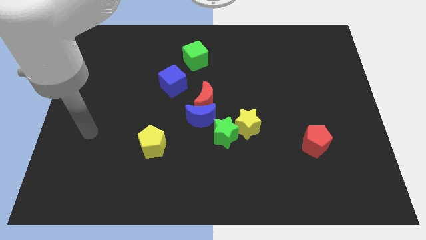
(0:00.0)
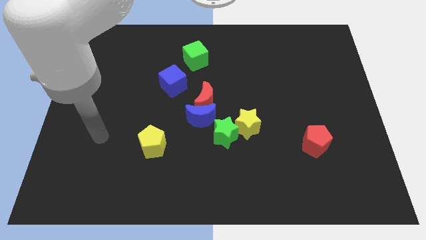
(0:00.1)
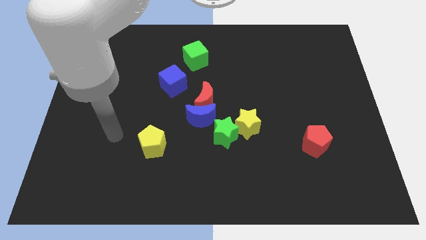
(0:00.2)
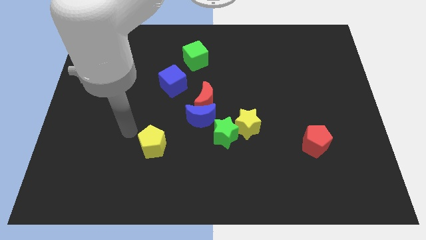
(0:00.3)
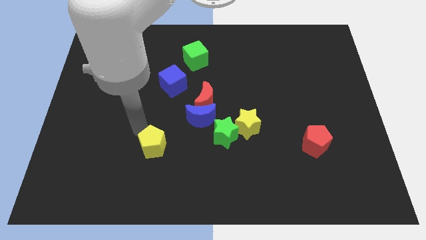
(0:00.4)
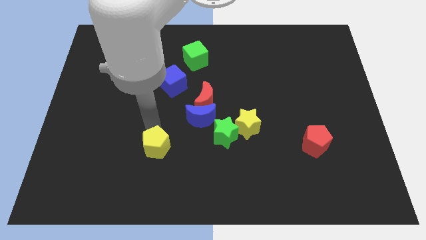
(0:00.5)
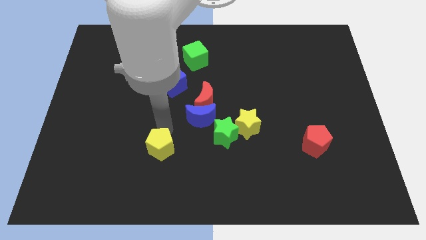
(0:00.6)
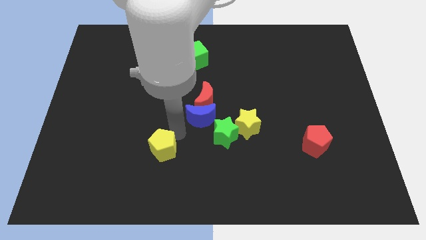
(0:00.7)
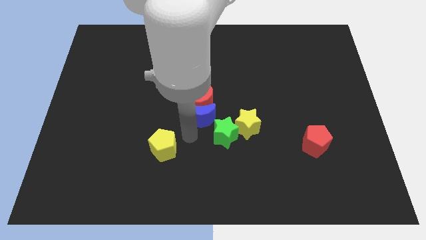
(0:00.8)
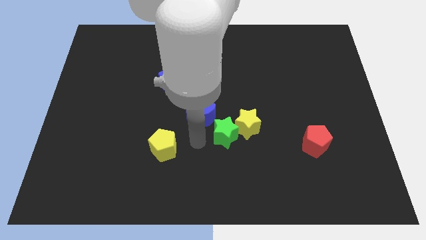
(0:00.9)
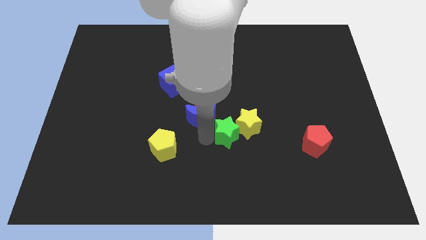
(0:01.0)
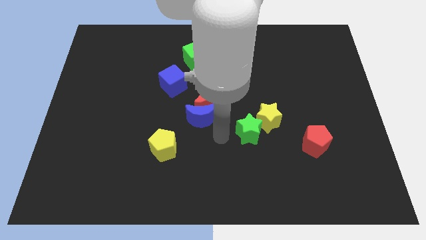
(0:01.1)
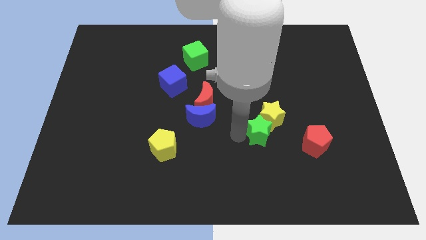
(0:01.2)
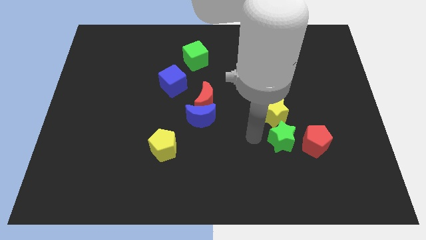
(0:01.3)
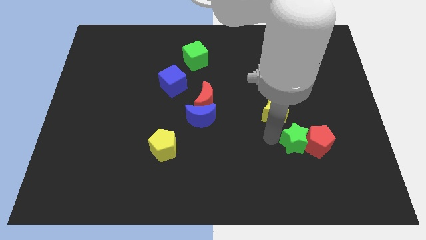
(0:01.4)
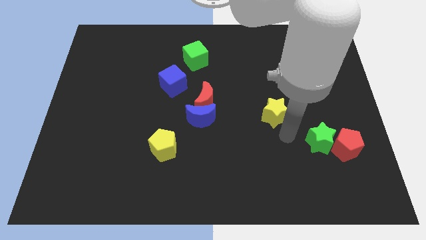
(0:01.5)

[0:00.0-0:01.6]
move the yellow star away from the green star

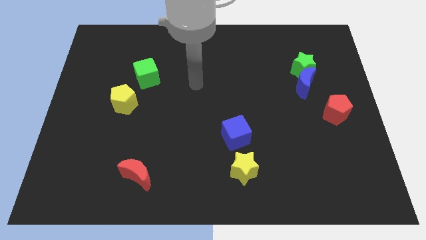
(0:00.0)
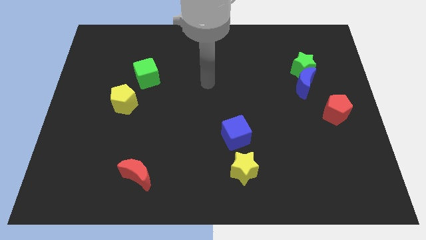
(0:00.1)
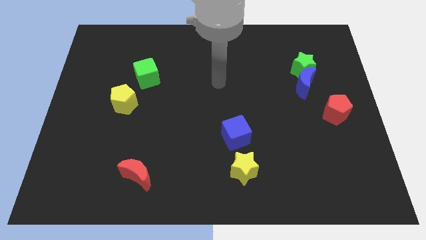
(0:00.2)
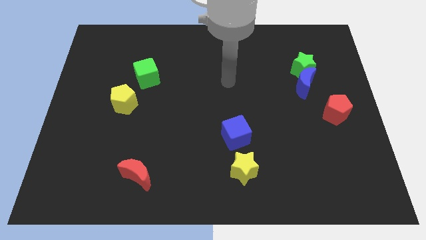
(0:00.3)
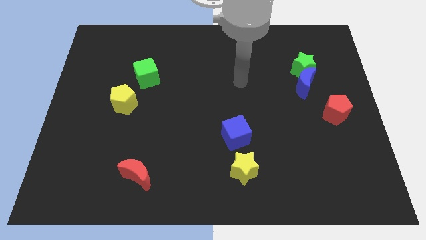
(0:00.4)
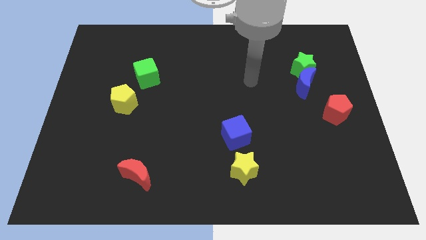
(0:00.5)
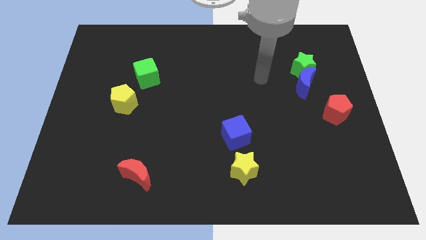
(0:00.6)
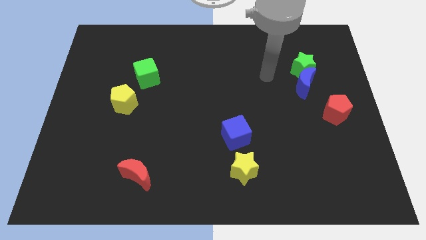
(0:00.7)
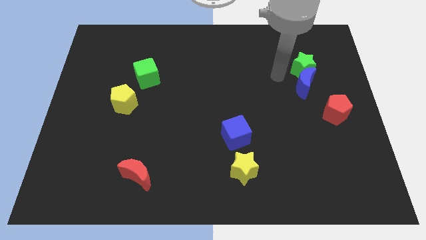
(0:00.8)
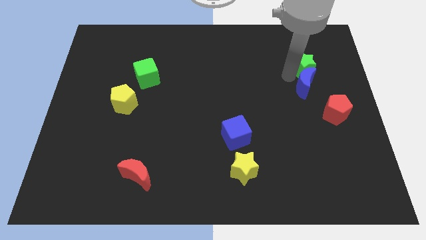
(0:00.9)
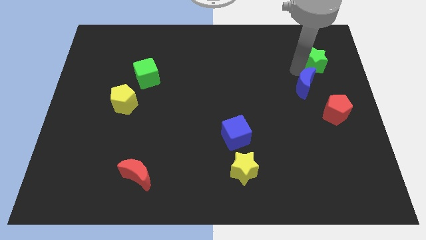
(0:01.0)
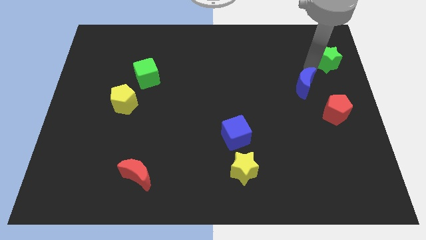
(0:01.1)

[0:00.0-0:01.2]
pull the blue moon apart from the green star

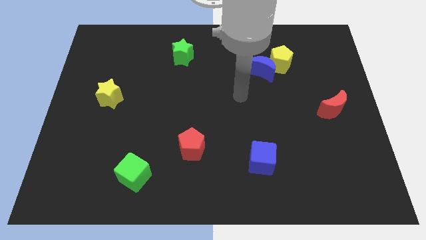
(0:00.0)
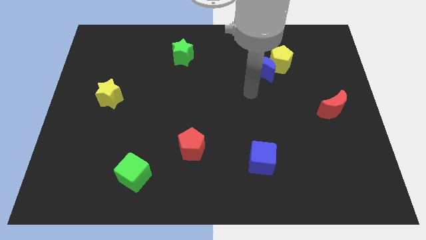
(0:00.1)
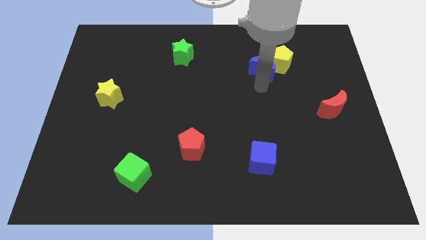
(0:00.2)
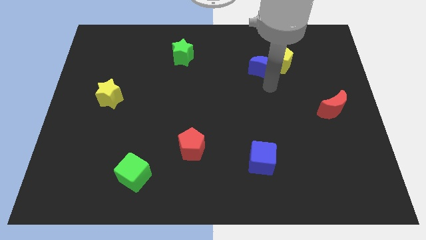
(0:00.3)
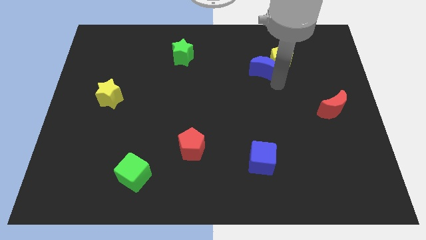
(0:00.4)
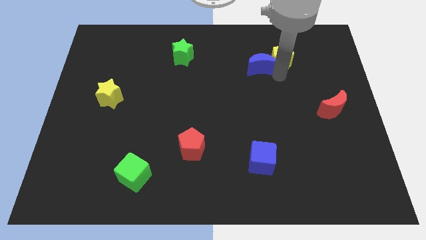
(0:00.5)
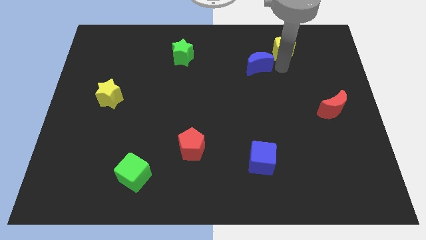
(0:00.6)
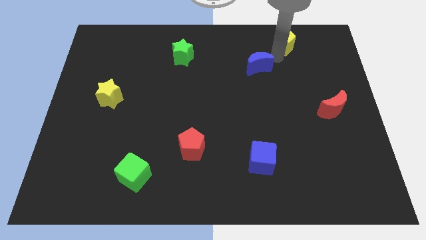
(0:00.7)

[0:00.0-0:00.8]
pull the blue moon apart from the yellow pentagon

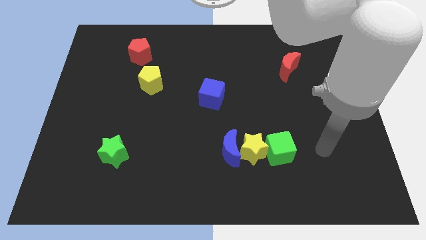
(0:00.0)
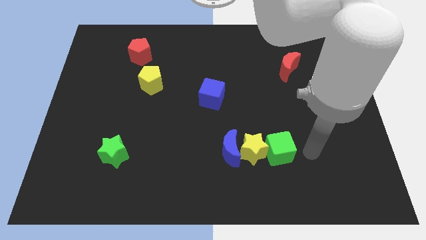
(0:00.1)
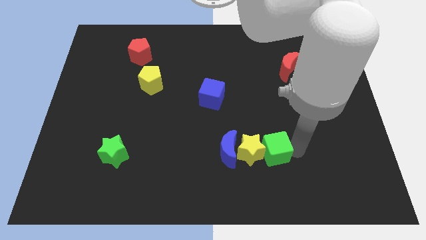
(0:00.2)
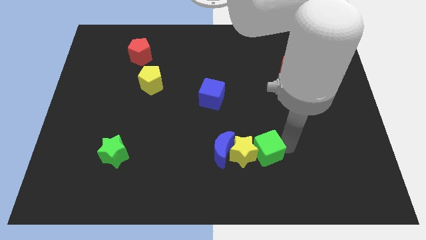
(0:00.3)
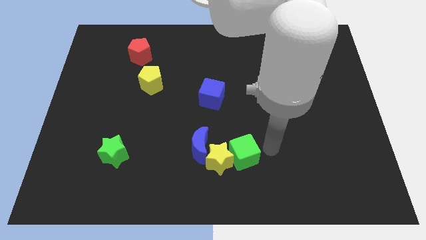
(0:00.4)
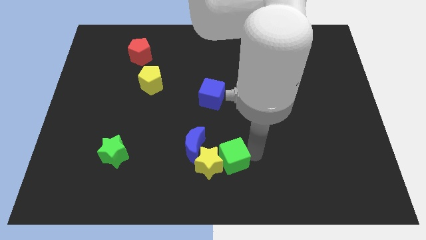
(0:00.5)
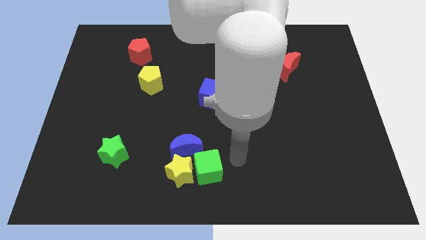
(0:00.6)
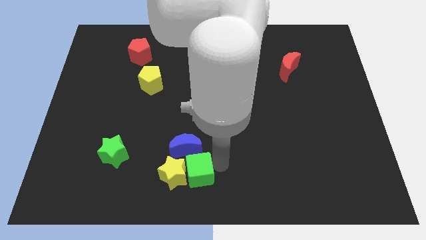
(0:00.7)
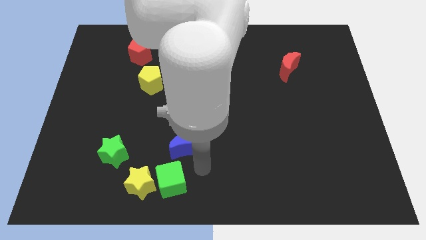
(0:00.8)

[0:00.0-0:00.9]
pull the blue moon apart from the yellow star

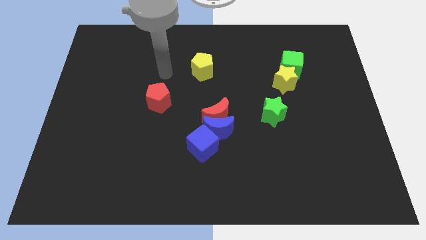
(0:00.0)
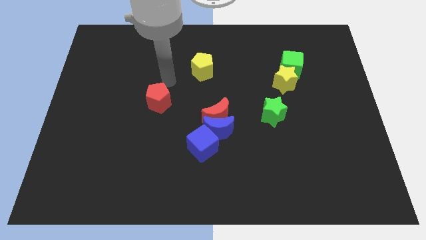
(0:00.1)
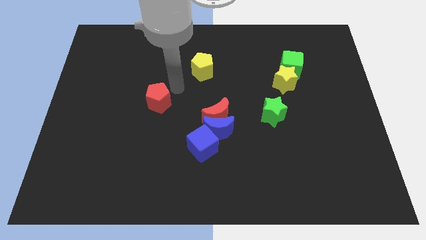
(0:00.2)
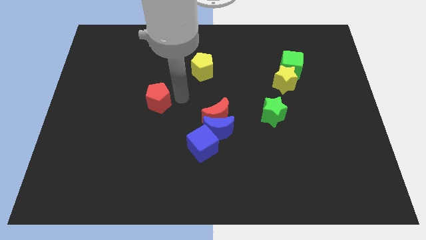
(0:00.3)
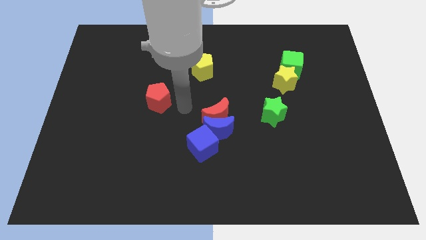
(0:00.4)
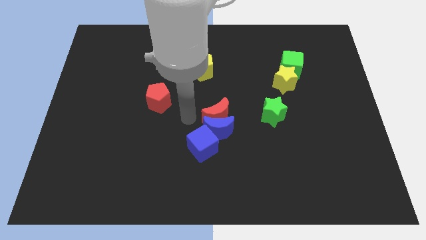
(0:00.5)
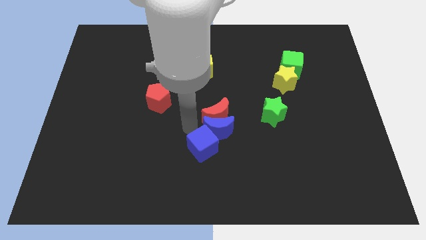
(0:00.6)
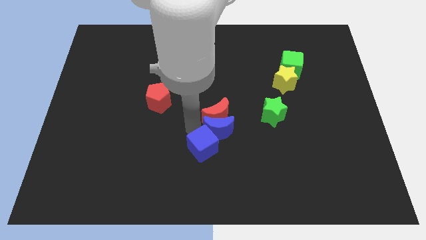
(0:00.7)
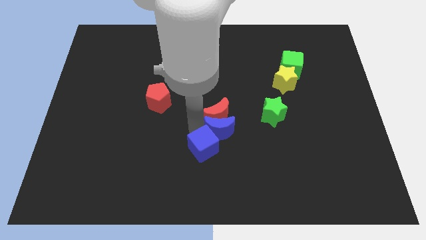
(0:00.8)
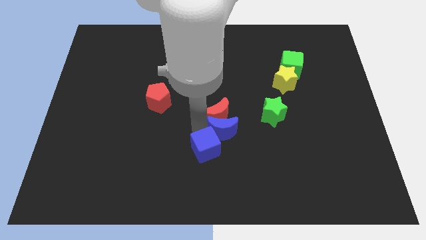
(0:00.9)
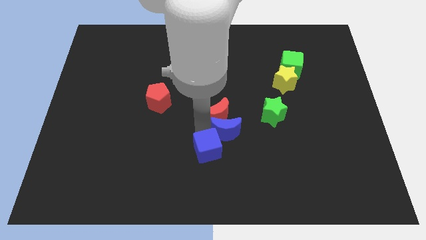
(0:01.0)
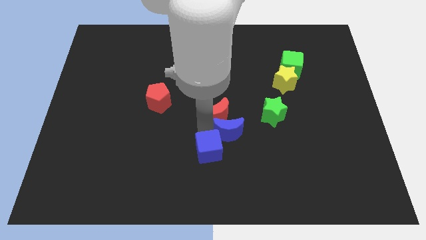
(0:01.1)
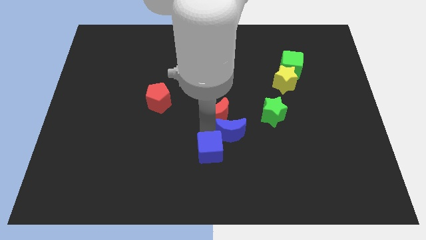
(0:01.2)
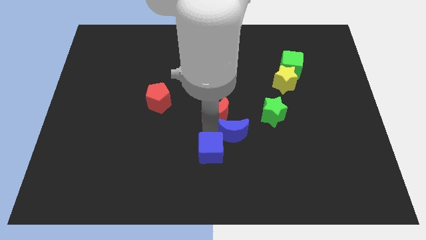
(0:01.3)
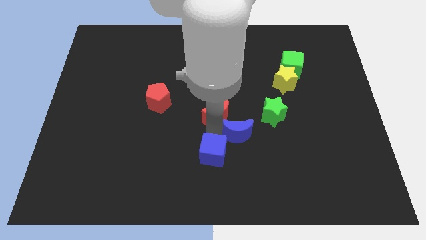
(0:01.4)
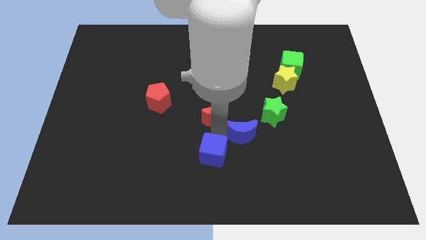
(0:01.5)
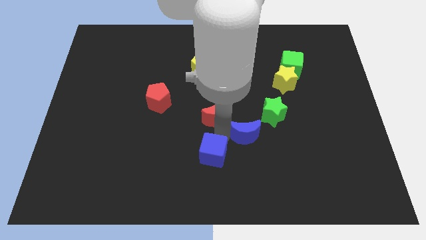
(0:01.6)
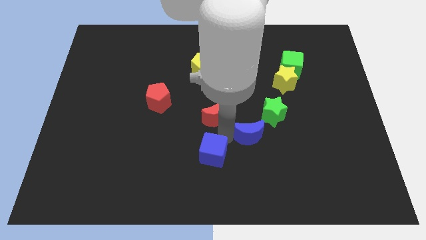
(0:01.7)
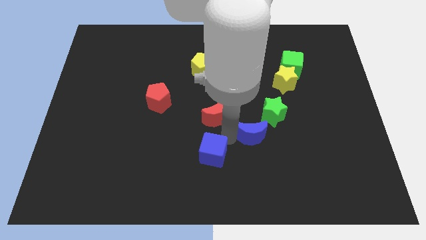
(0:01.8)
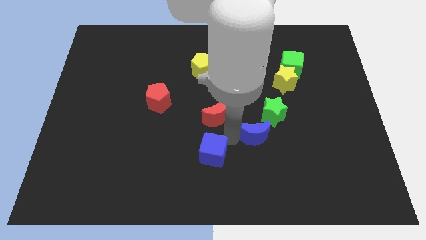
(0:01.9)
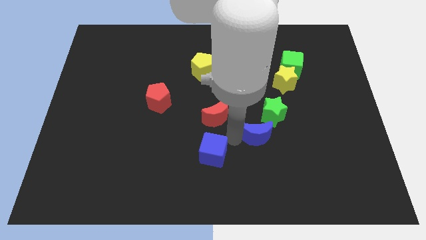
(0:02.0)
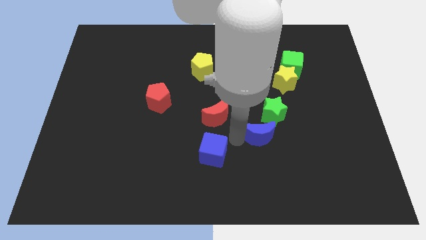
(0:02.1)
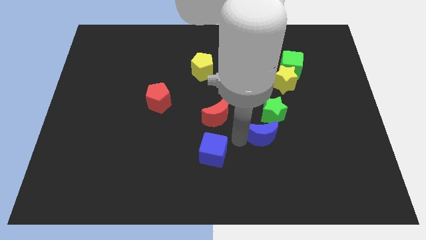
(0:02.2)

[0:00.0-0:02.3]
move the blue moon away from the red moon and blue cube

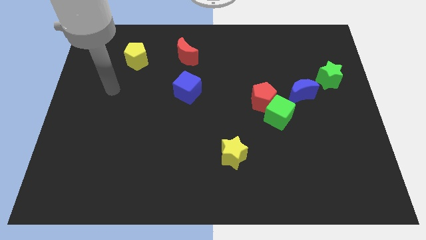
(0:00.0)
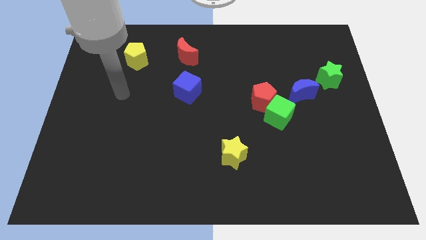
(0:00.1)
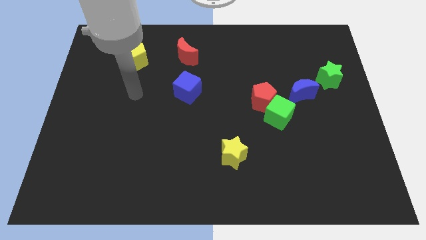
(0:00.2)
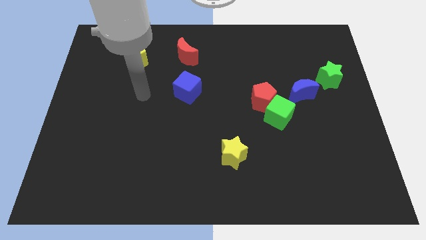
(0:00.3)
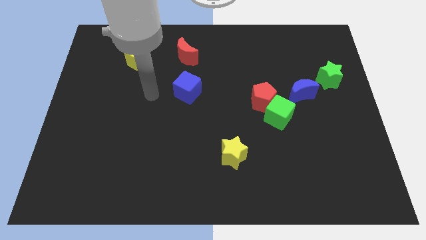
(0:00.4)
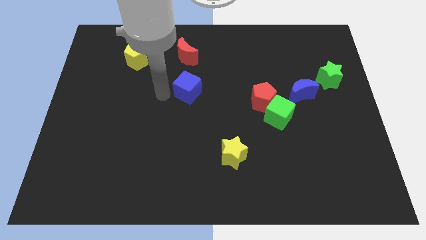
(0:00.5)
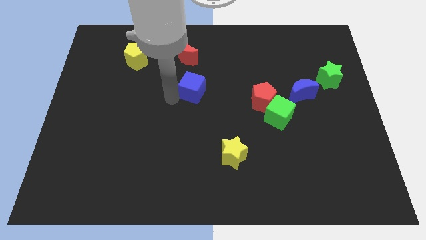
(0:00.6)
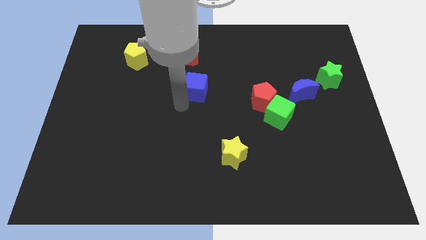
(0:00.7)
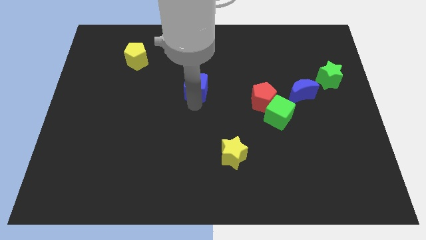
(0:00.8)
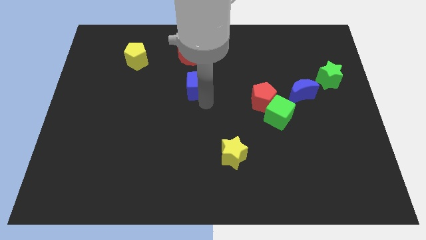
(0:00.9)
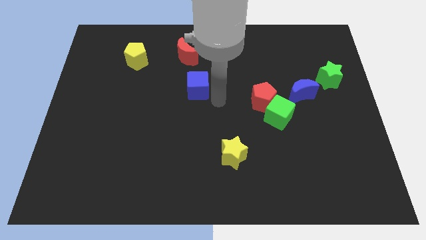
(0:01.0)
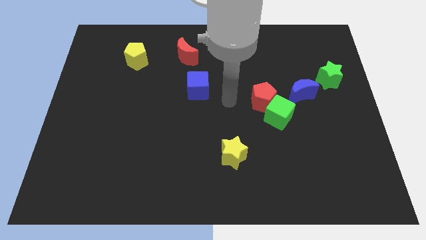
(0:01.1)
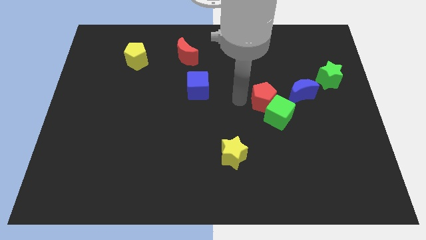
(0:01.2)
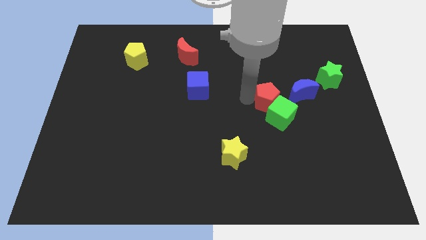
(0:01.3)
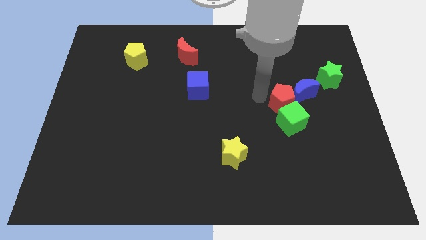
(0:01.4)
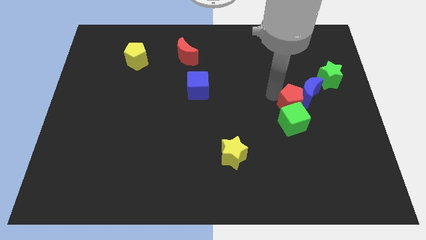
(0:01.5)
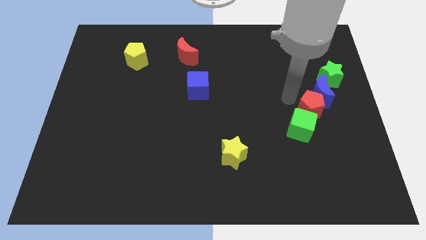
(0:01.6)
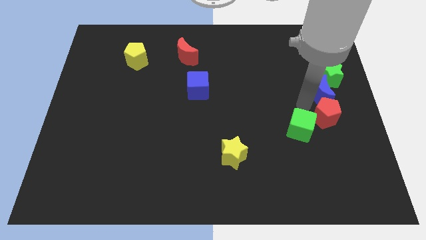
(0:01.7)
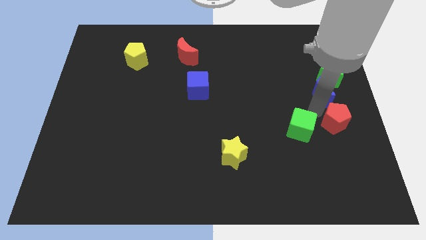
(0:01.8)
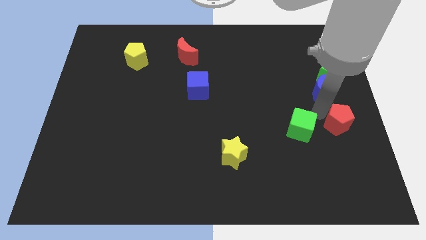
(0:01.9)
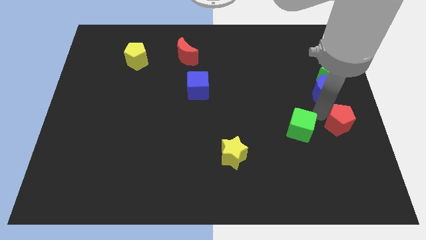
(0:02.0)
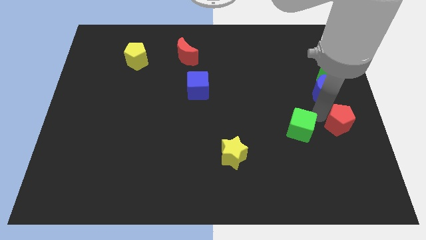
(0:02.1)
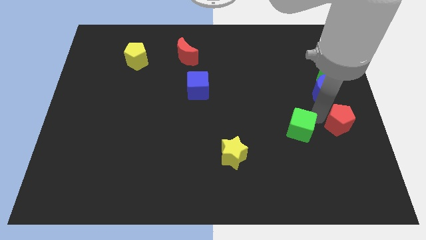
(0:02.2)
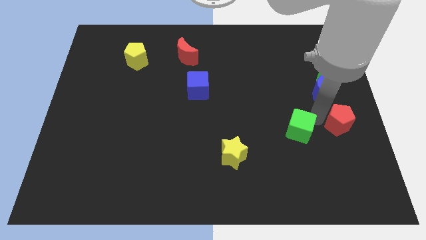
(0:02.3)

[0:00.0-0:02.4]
separate the green cube from the red pentagon and blue moon
